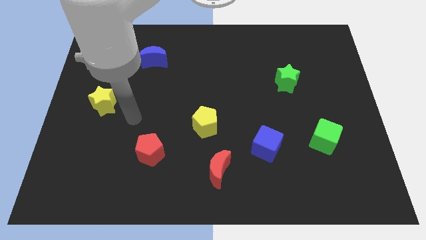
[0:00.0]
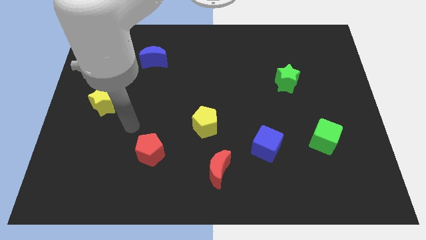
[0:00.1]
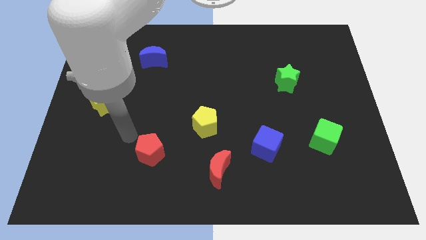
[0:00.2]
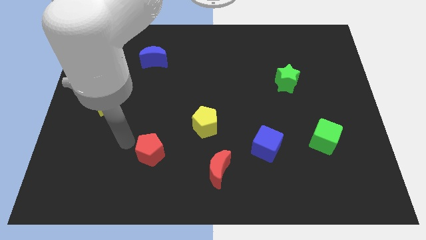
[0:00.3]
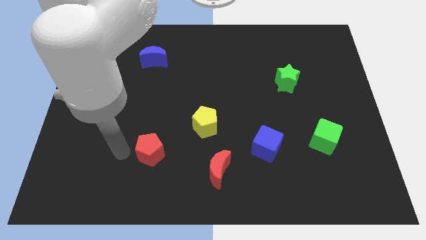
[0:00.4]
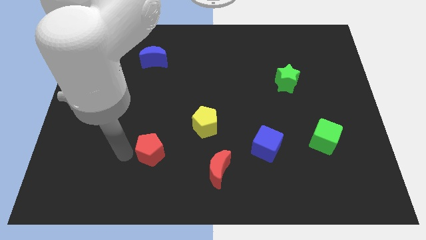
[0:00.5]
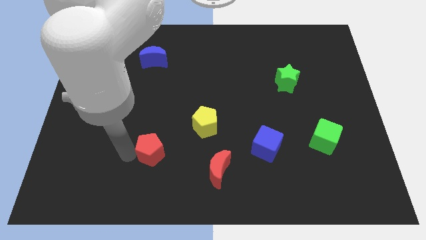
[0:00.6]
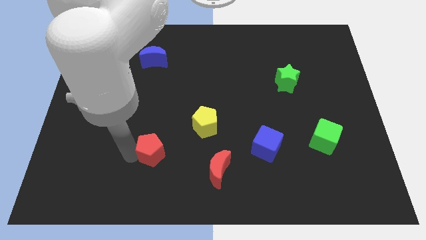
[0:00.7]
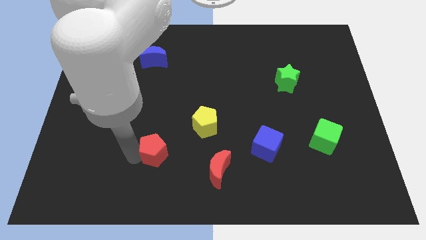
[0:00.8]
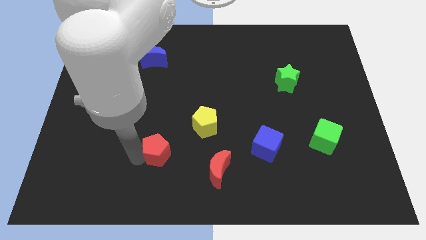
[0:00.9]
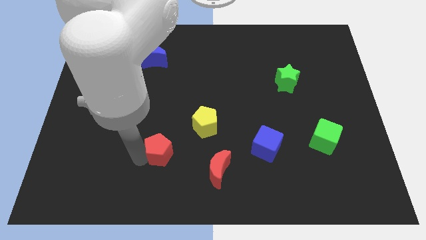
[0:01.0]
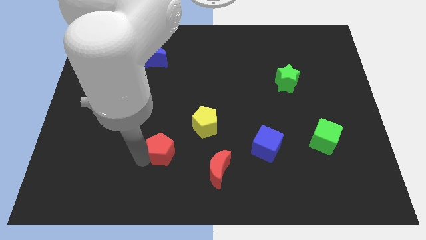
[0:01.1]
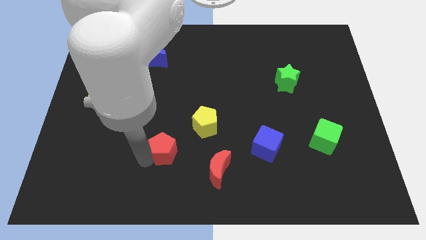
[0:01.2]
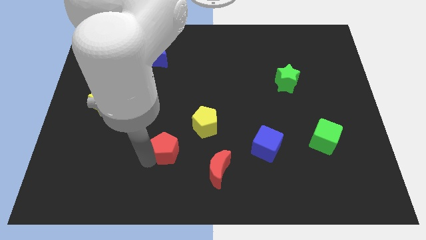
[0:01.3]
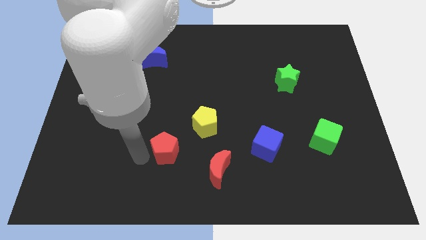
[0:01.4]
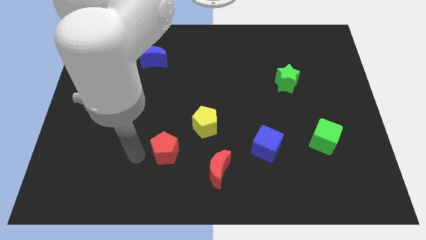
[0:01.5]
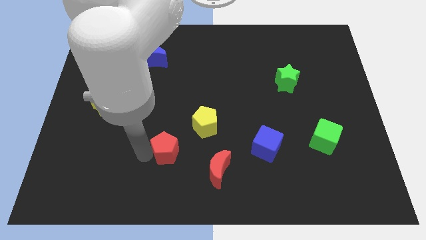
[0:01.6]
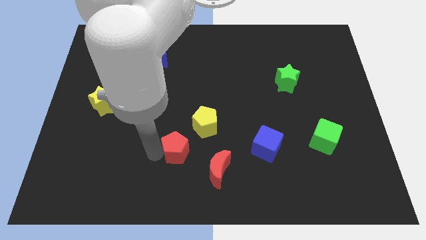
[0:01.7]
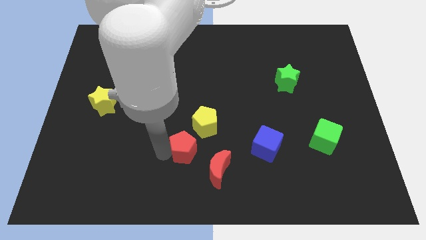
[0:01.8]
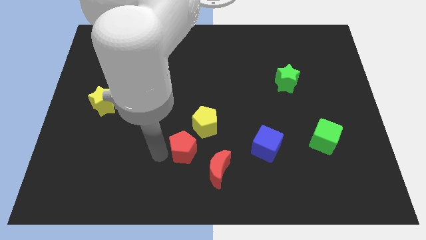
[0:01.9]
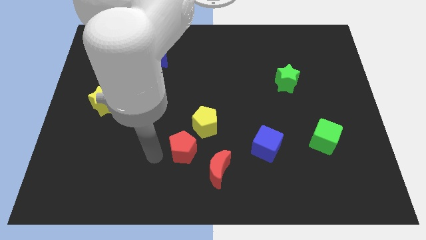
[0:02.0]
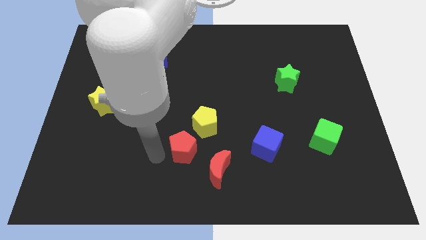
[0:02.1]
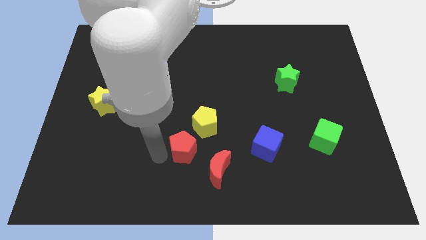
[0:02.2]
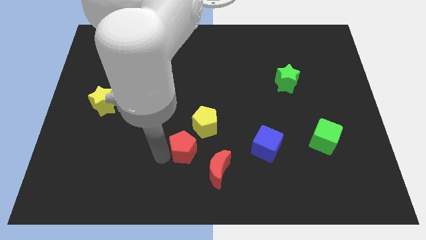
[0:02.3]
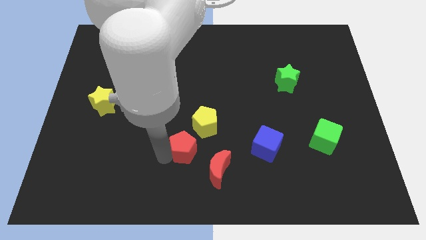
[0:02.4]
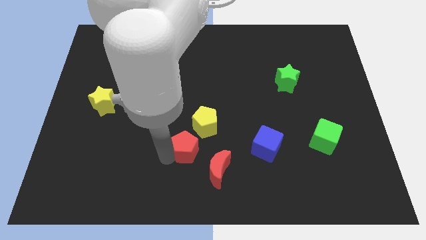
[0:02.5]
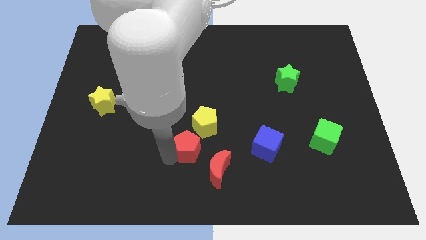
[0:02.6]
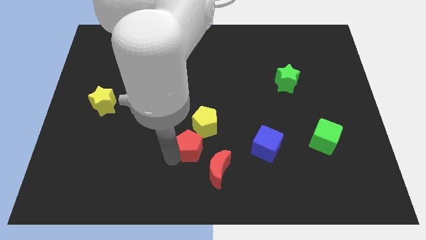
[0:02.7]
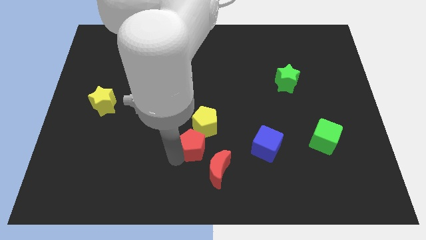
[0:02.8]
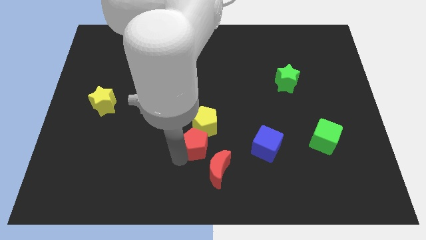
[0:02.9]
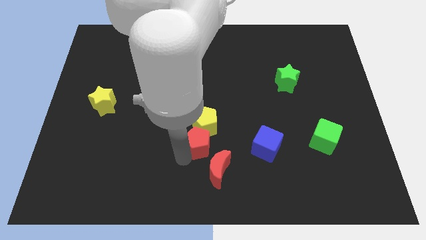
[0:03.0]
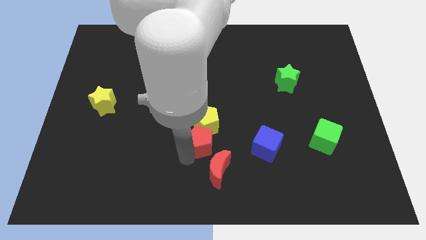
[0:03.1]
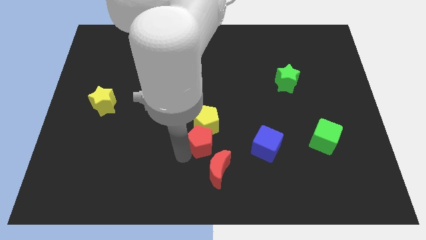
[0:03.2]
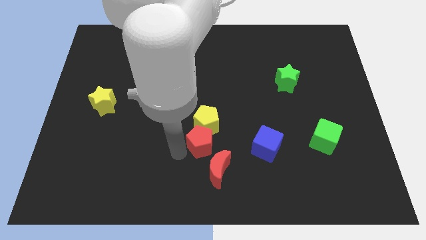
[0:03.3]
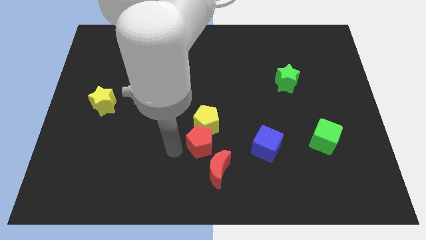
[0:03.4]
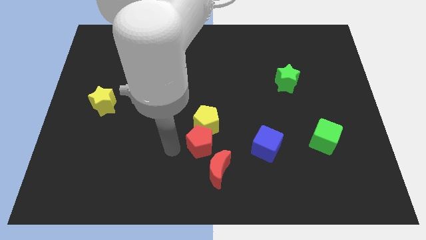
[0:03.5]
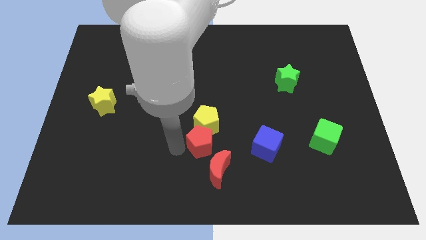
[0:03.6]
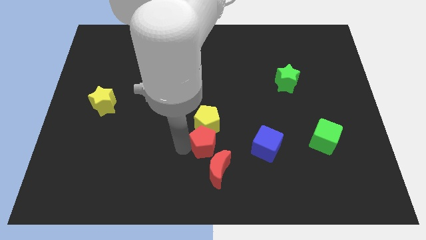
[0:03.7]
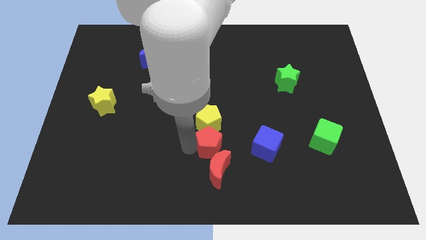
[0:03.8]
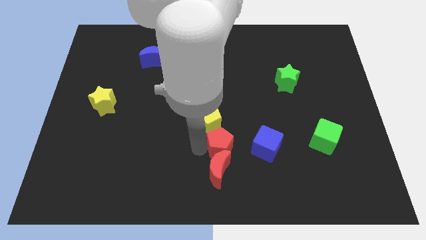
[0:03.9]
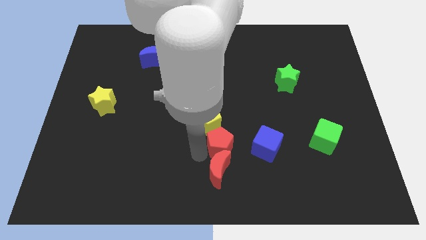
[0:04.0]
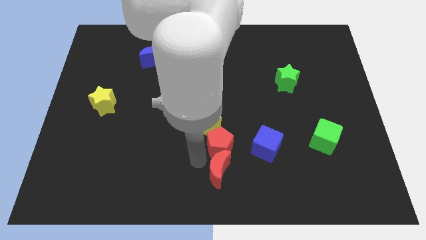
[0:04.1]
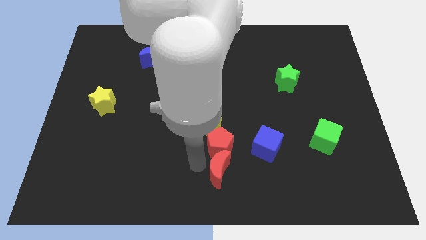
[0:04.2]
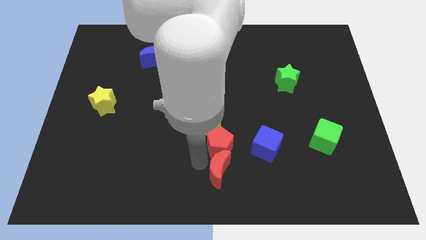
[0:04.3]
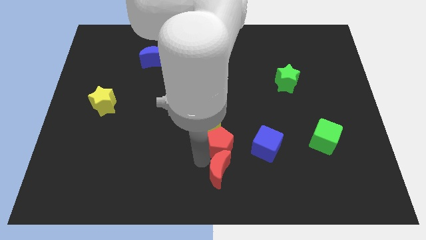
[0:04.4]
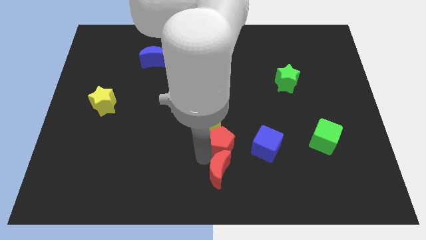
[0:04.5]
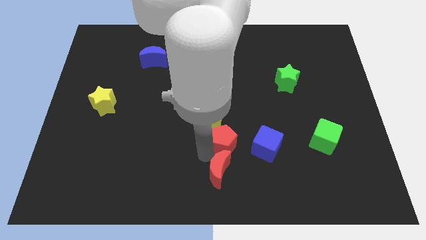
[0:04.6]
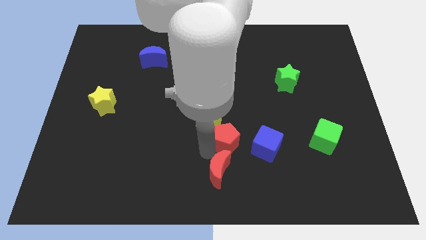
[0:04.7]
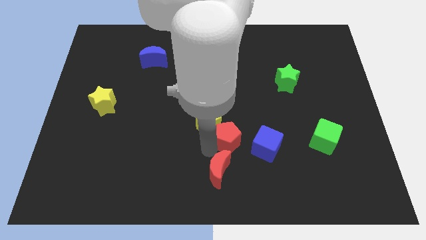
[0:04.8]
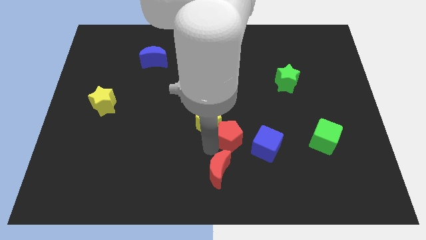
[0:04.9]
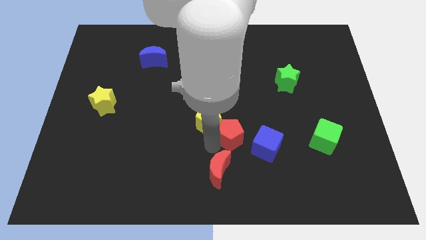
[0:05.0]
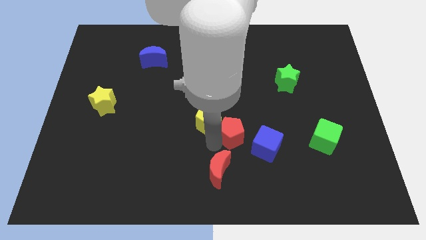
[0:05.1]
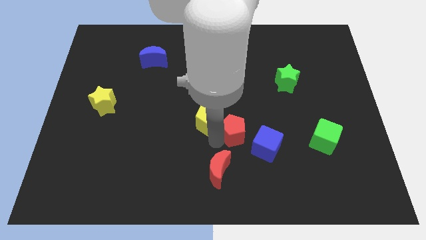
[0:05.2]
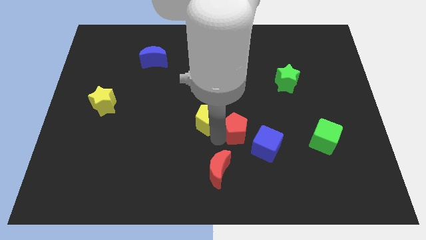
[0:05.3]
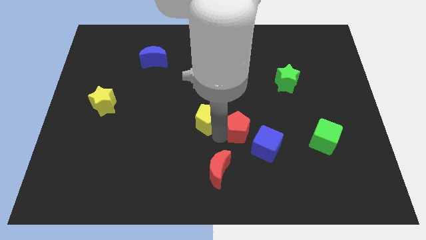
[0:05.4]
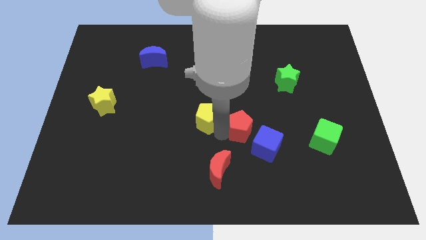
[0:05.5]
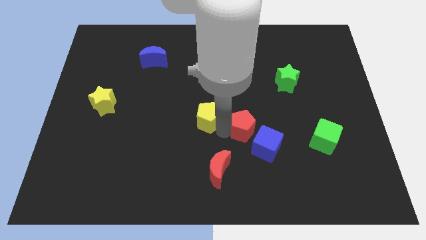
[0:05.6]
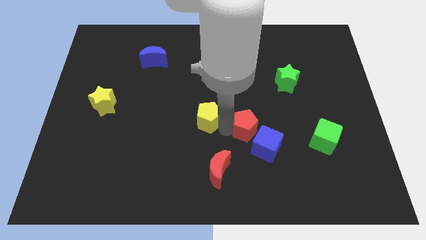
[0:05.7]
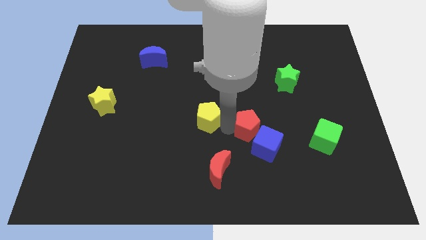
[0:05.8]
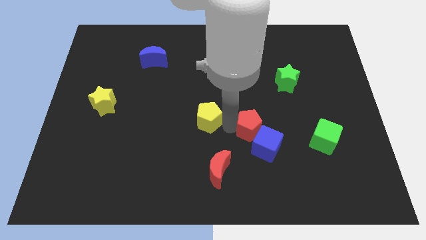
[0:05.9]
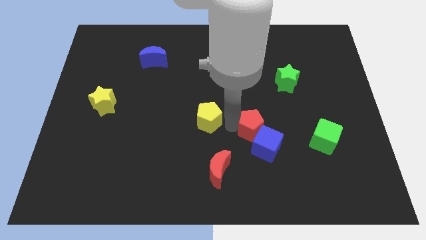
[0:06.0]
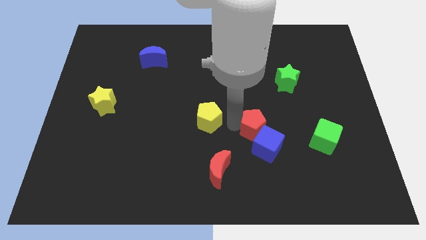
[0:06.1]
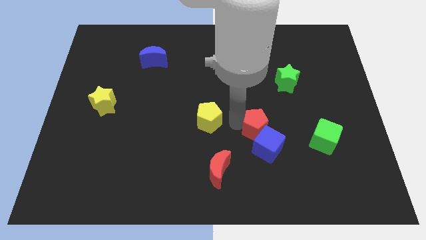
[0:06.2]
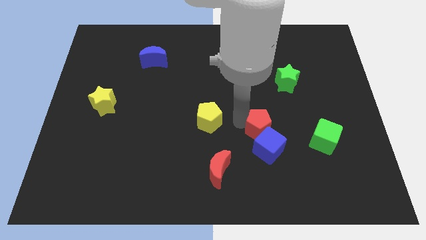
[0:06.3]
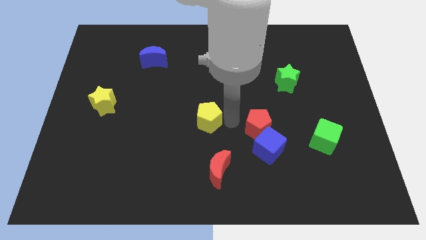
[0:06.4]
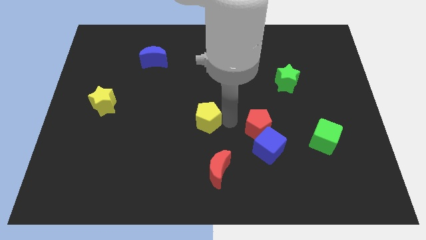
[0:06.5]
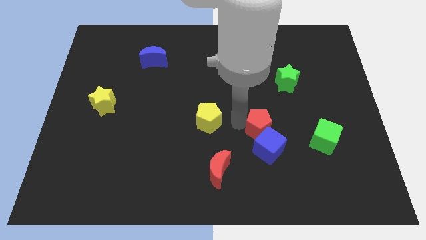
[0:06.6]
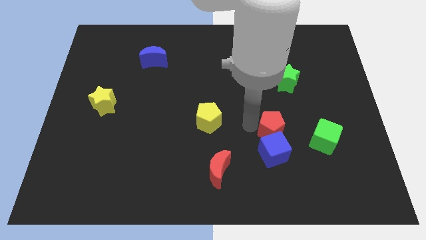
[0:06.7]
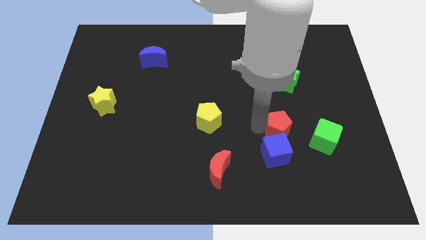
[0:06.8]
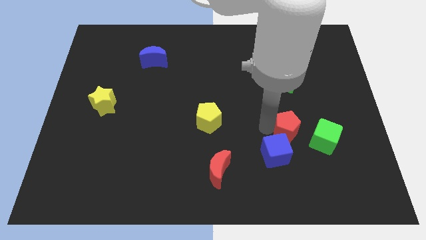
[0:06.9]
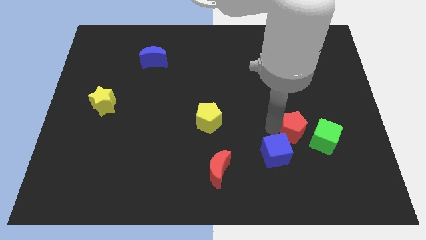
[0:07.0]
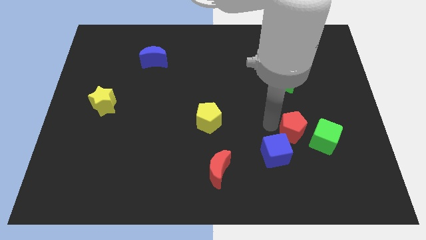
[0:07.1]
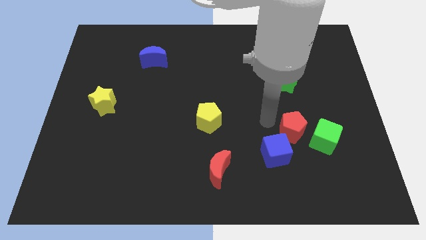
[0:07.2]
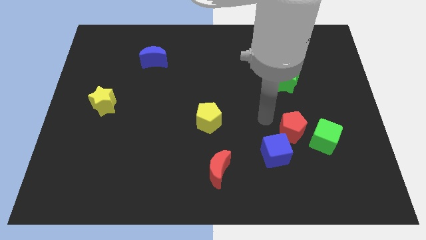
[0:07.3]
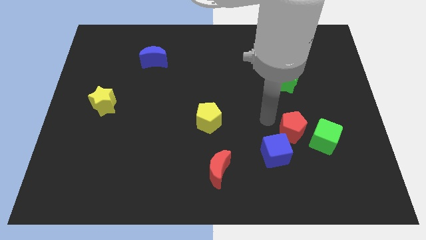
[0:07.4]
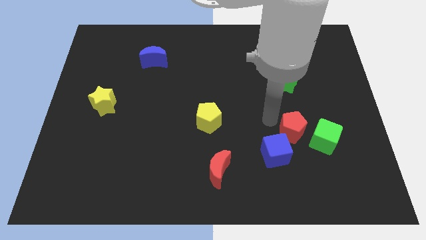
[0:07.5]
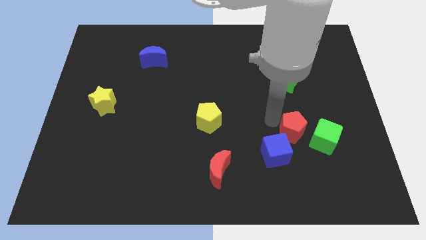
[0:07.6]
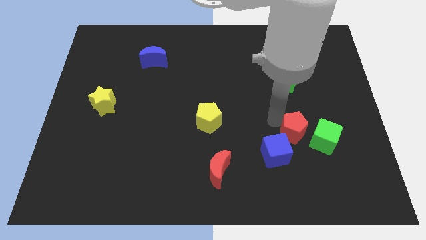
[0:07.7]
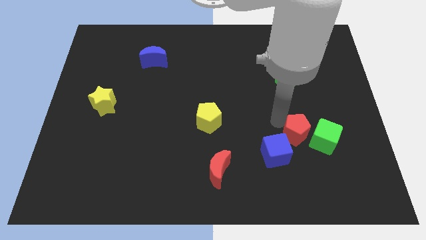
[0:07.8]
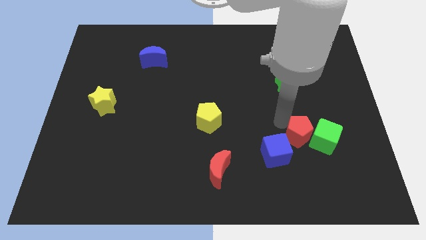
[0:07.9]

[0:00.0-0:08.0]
slide the red pentagon next to the green cube
